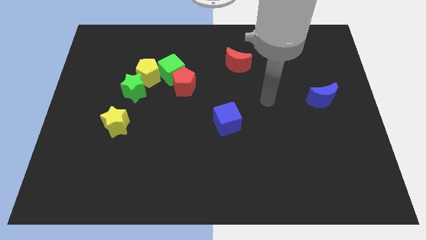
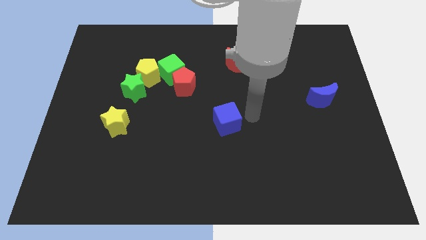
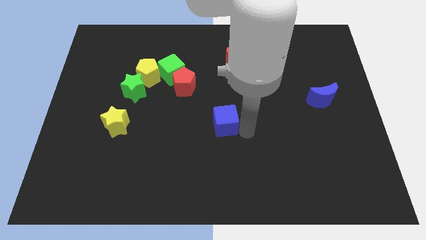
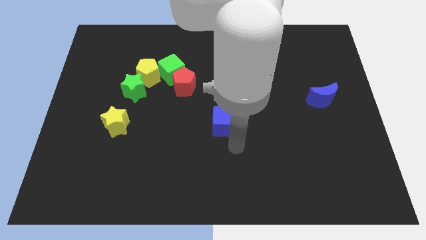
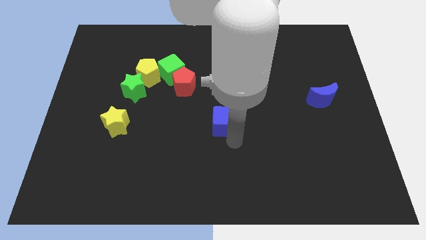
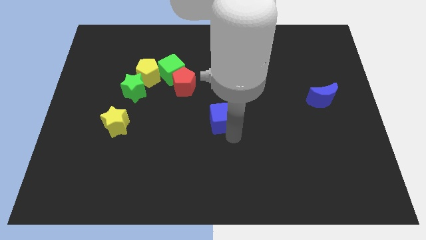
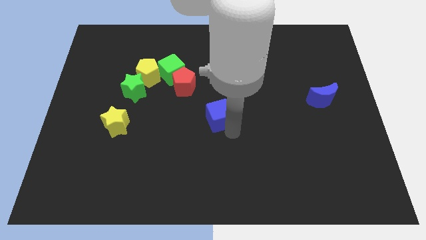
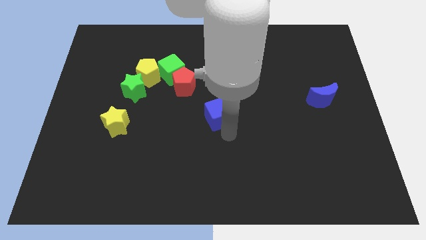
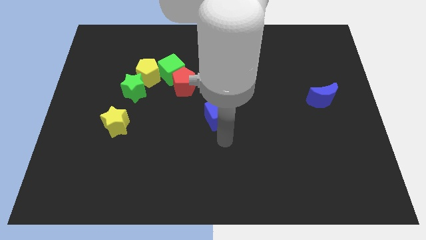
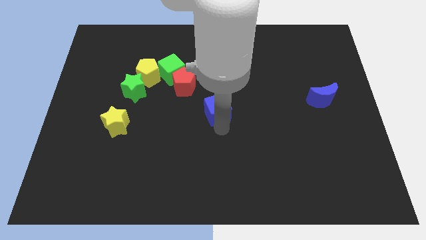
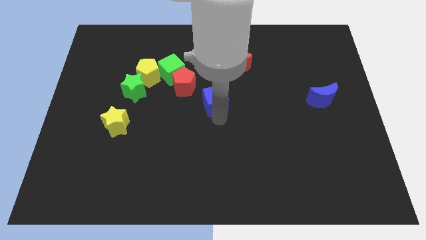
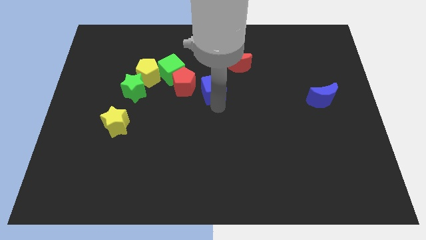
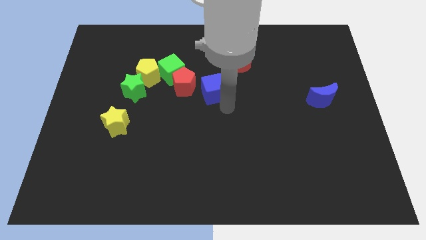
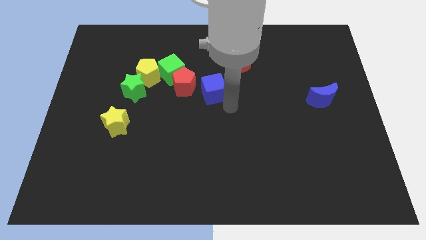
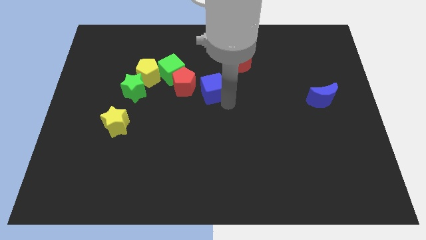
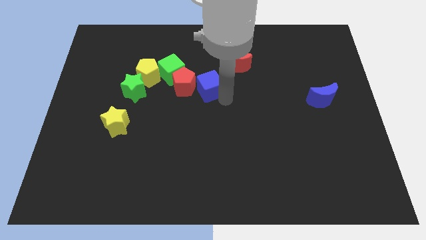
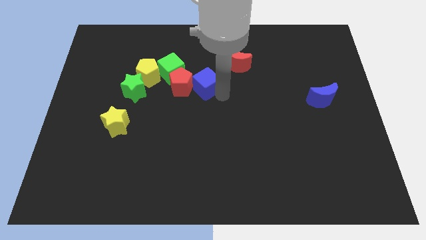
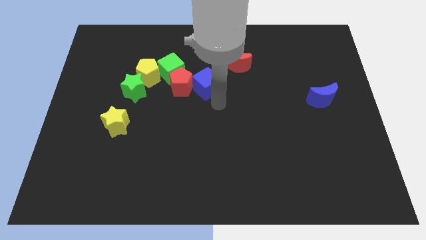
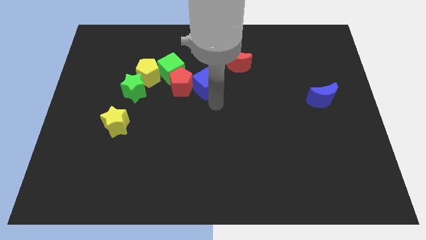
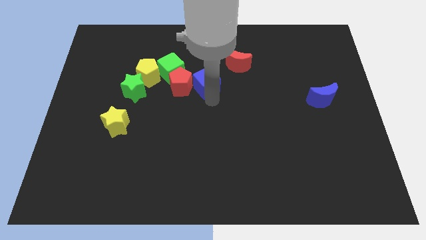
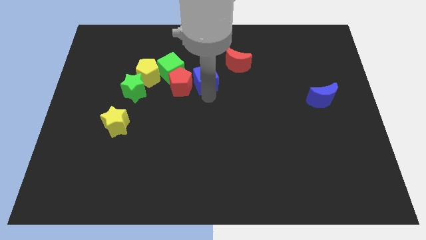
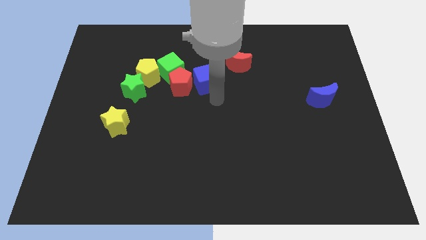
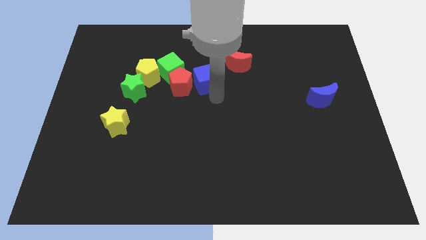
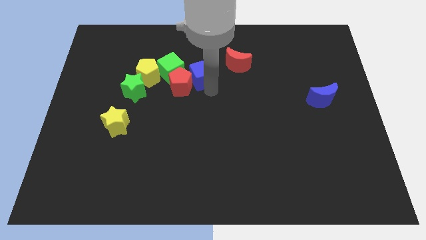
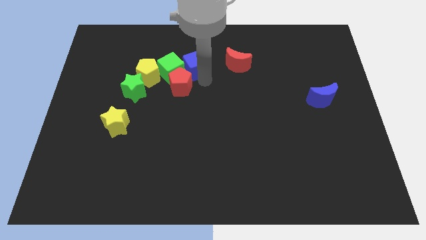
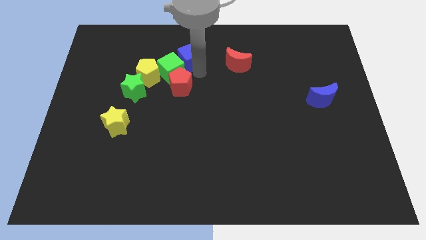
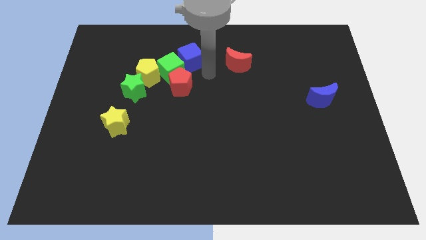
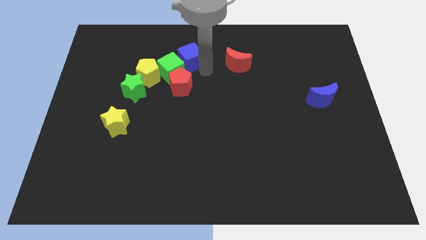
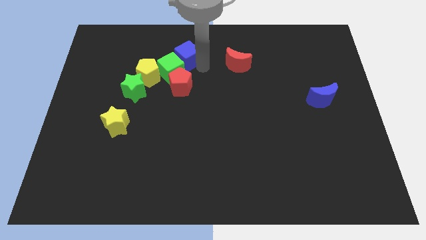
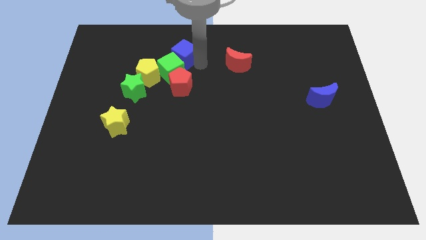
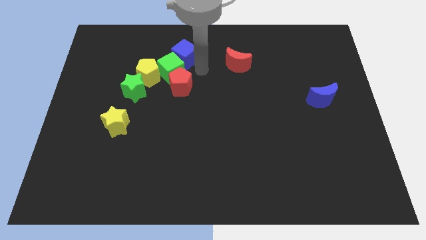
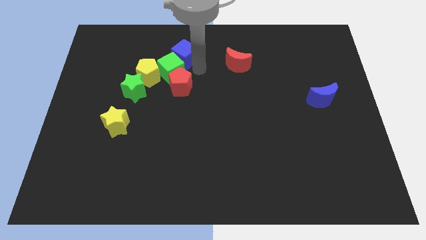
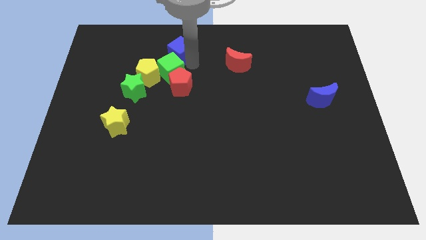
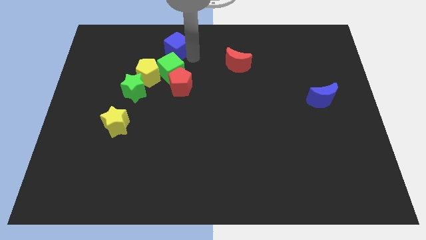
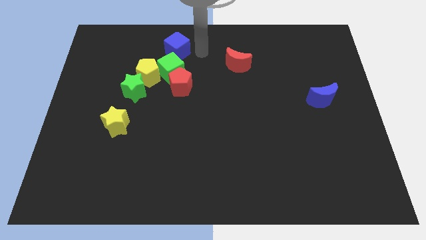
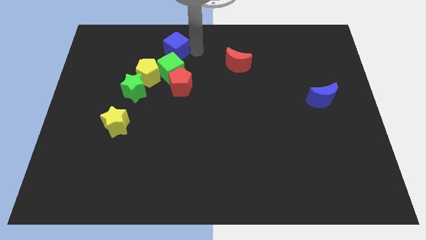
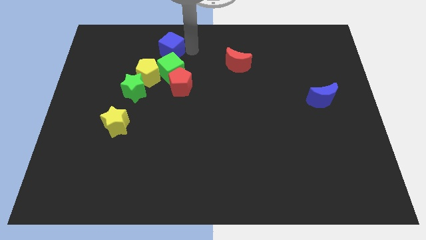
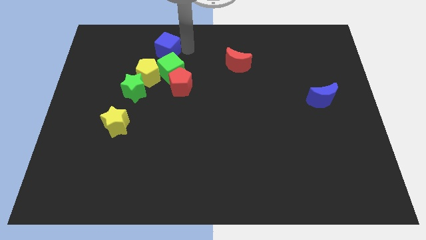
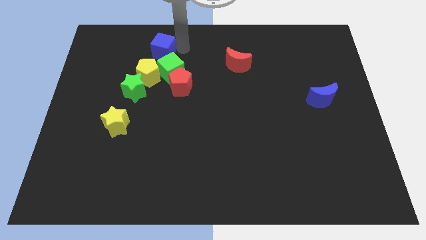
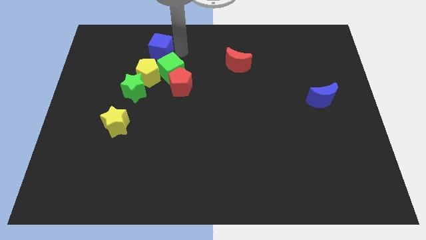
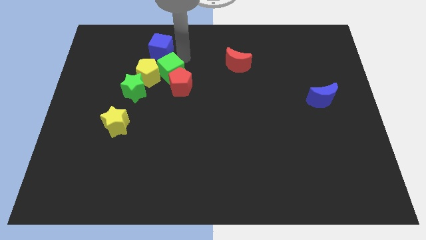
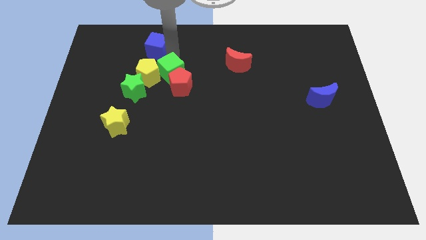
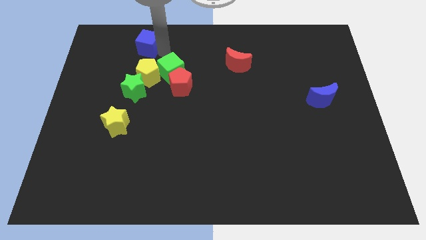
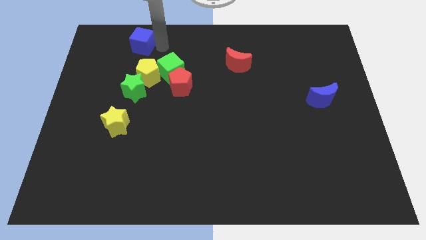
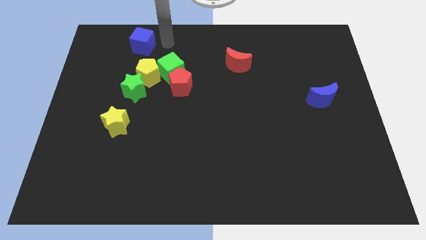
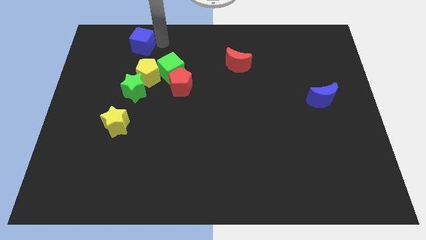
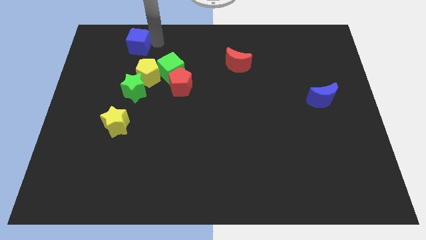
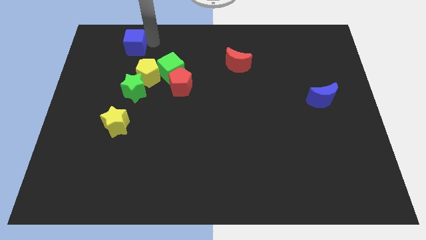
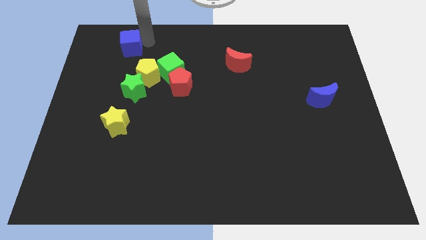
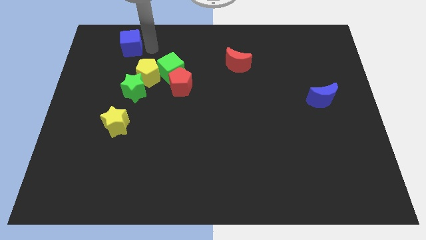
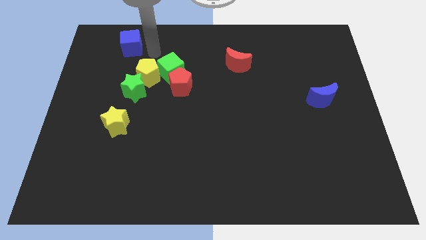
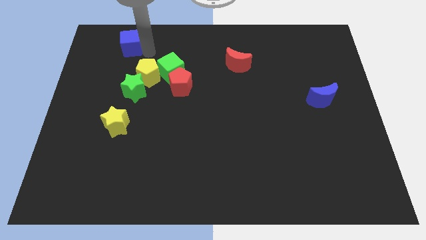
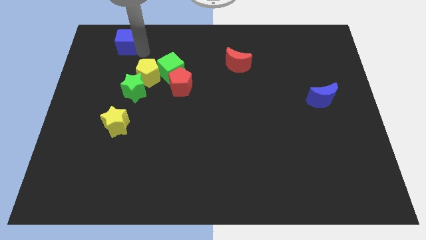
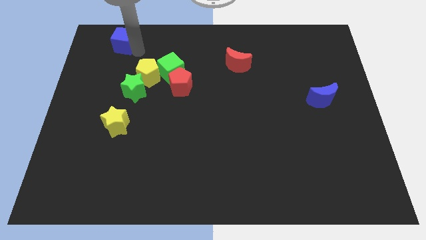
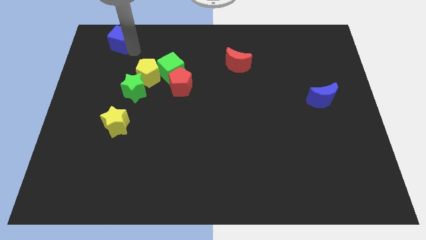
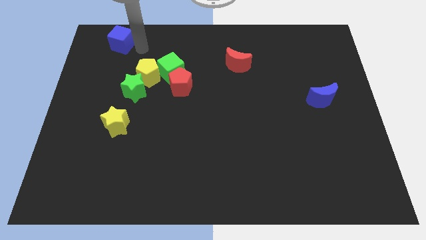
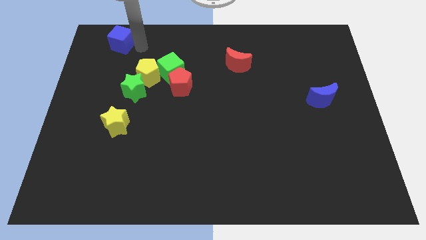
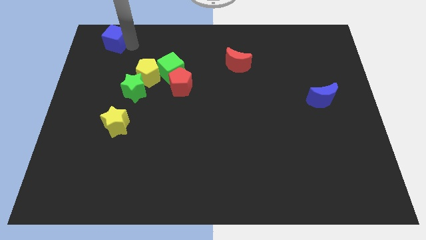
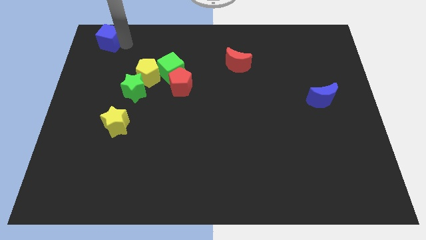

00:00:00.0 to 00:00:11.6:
push the blue cube to the top left
